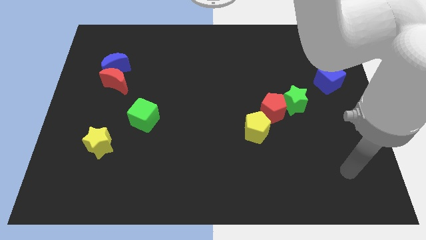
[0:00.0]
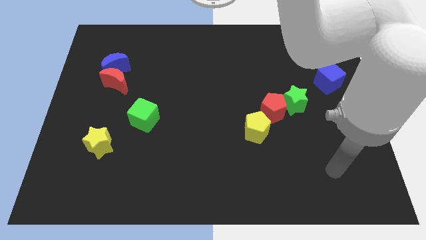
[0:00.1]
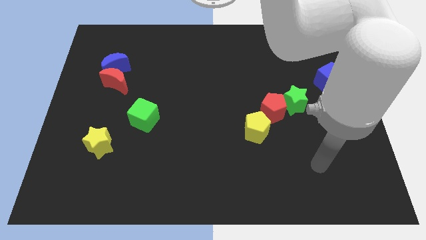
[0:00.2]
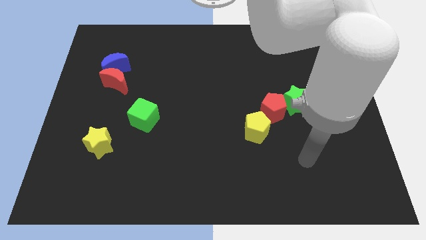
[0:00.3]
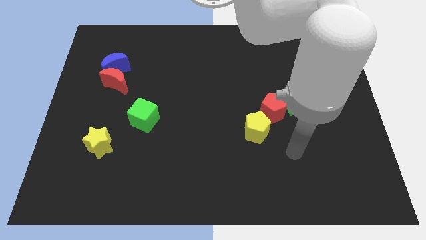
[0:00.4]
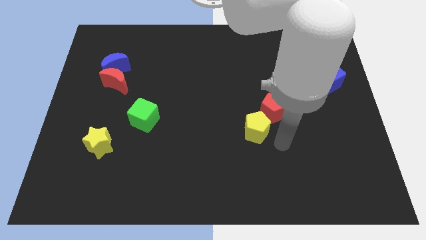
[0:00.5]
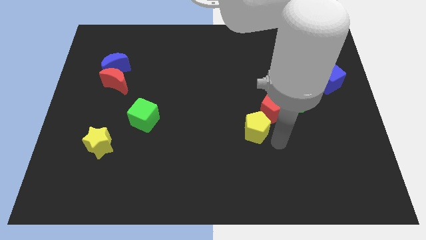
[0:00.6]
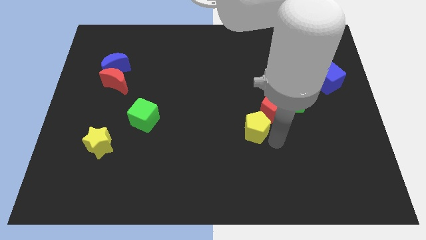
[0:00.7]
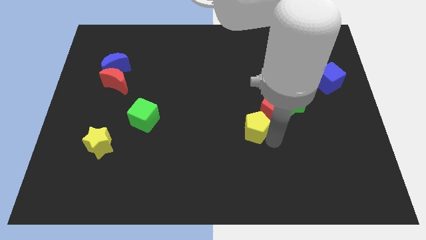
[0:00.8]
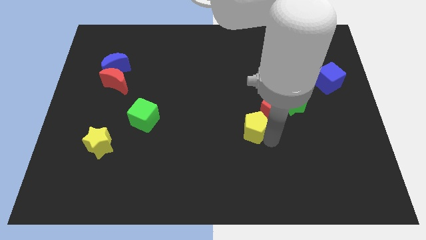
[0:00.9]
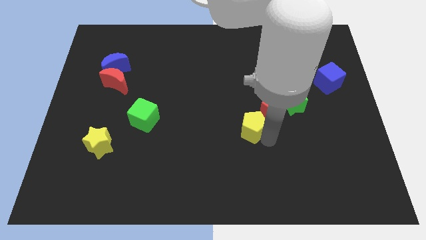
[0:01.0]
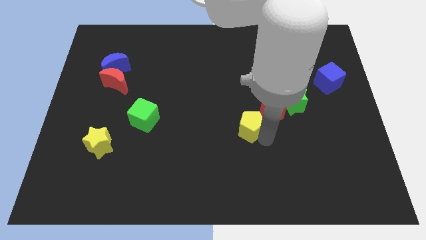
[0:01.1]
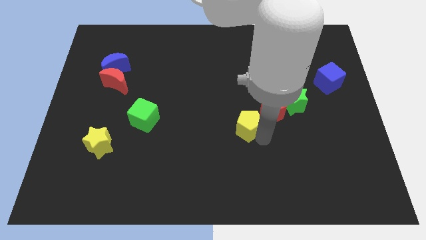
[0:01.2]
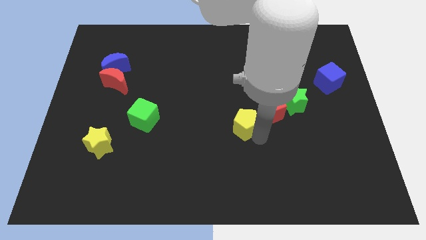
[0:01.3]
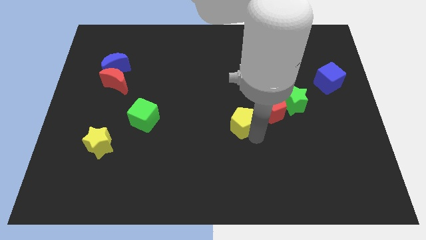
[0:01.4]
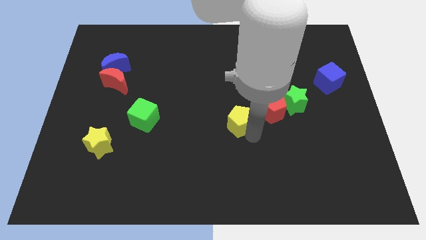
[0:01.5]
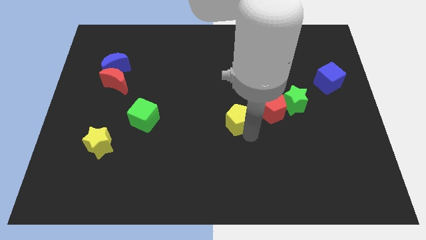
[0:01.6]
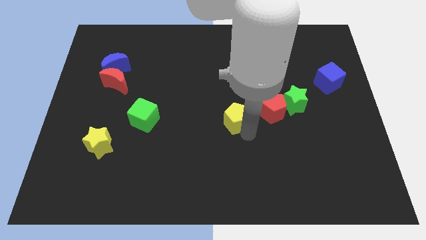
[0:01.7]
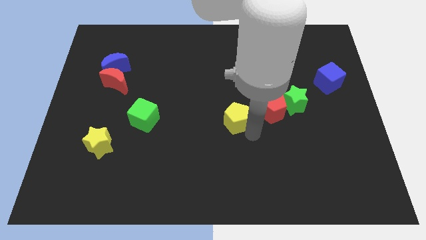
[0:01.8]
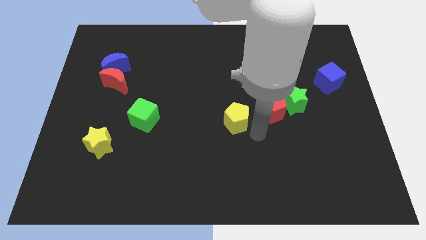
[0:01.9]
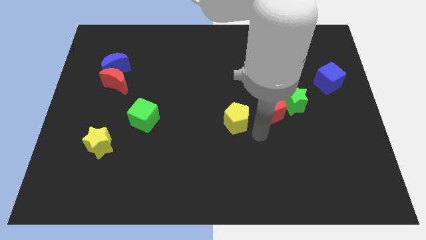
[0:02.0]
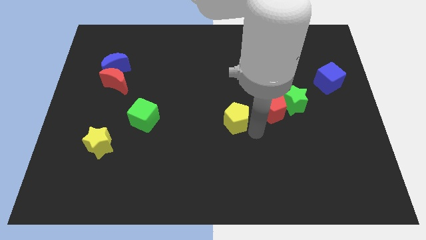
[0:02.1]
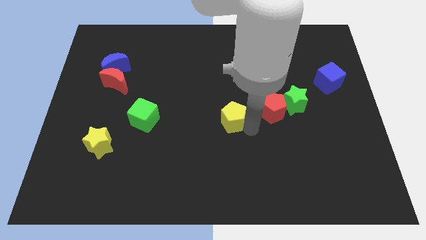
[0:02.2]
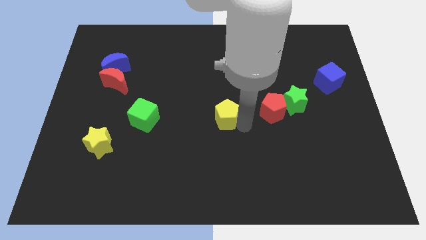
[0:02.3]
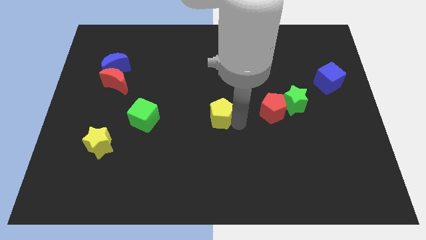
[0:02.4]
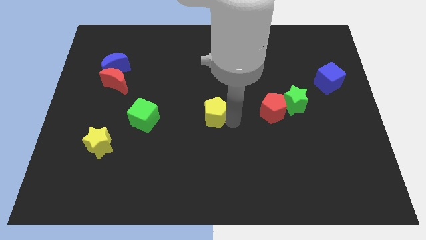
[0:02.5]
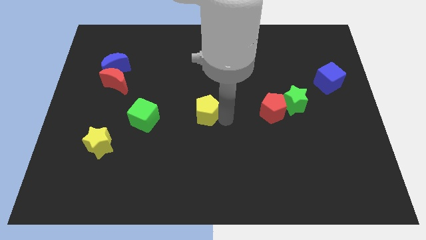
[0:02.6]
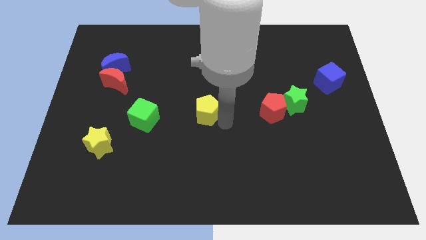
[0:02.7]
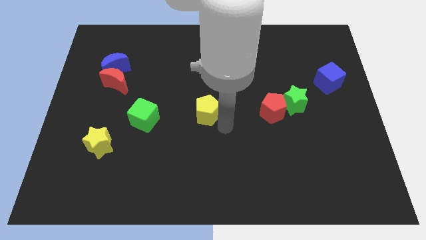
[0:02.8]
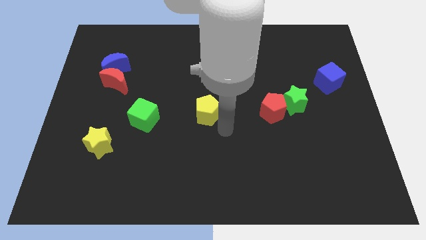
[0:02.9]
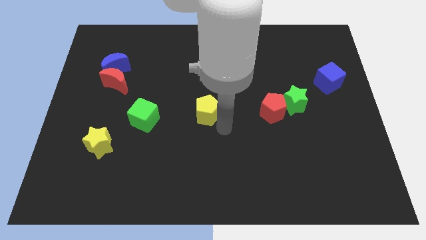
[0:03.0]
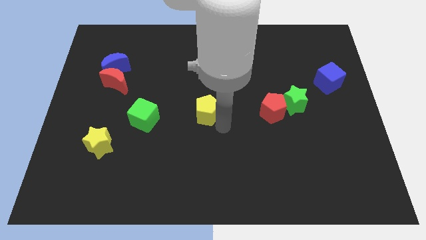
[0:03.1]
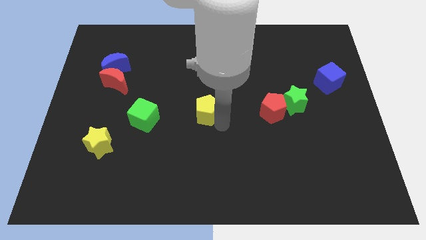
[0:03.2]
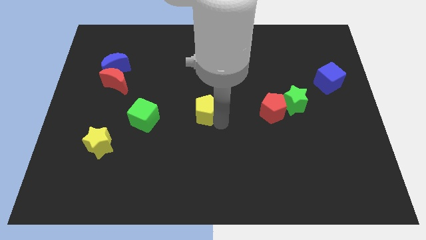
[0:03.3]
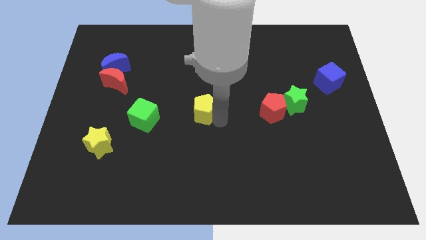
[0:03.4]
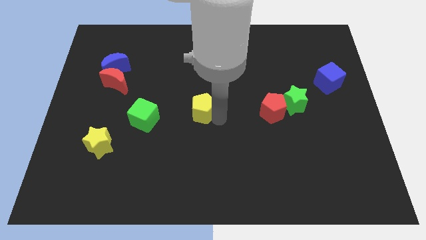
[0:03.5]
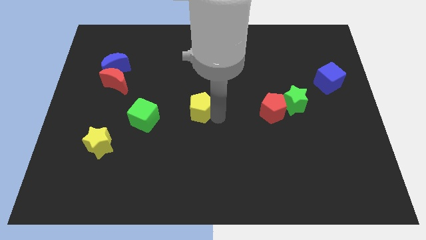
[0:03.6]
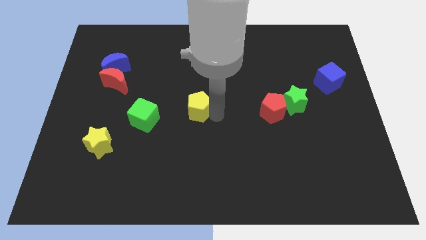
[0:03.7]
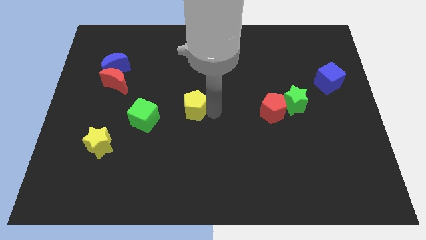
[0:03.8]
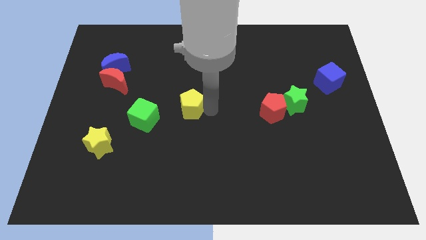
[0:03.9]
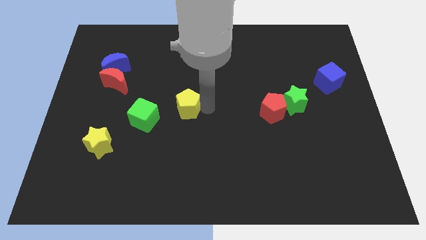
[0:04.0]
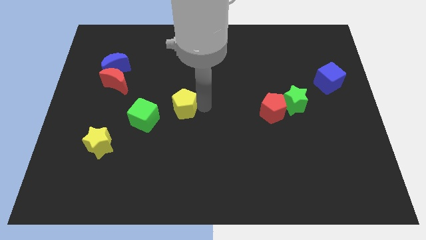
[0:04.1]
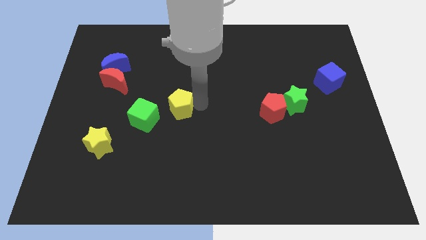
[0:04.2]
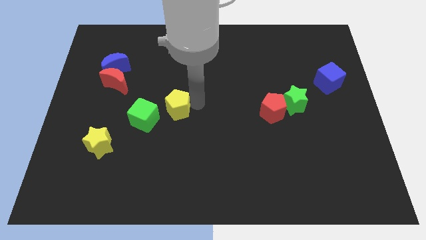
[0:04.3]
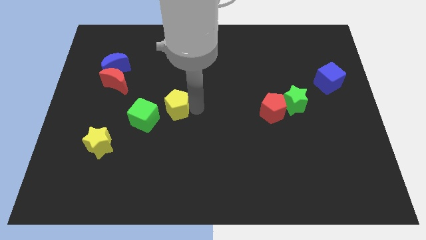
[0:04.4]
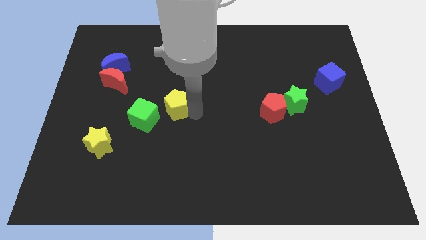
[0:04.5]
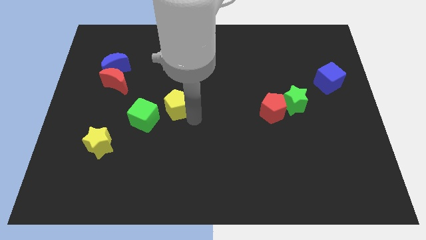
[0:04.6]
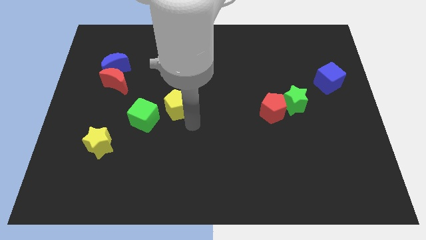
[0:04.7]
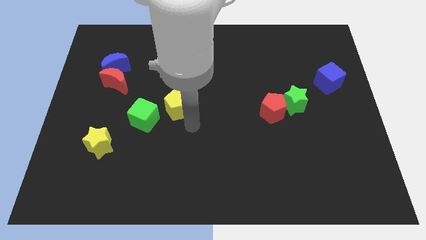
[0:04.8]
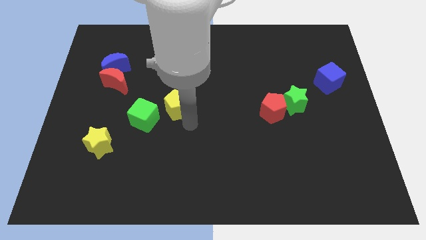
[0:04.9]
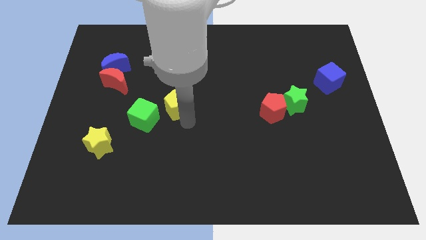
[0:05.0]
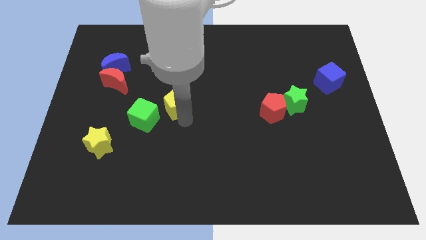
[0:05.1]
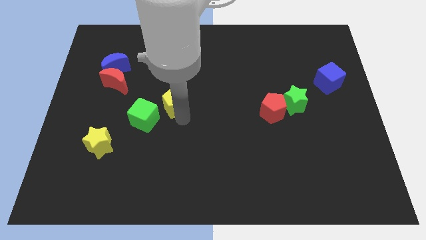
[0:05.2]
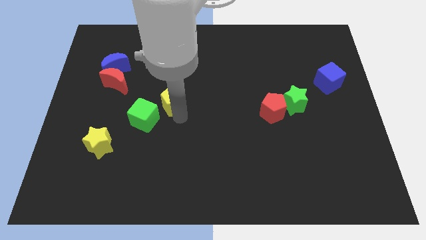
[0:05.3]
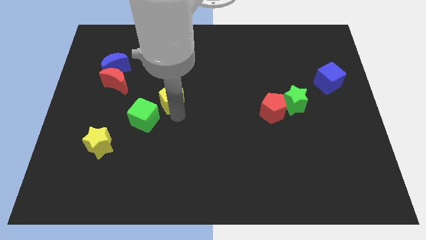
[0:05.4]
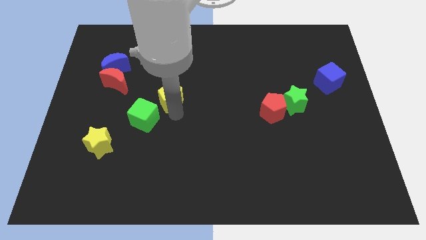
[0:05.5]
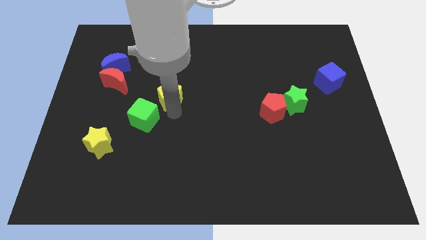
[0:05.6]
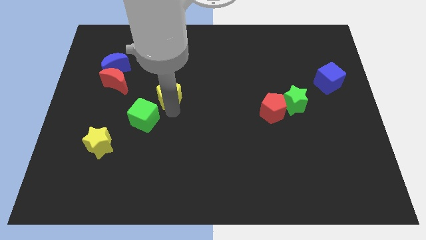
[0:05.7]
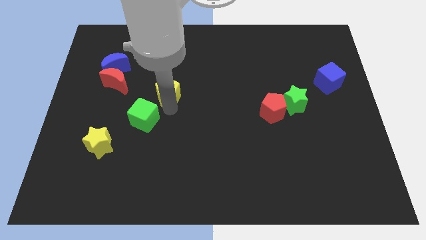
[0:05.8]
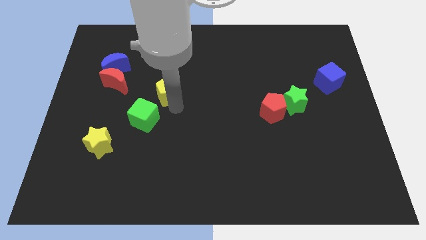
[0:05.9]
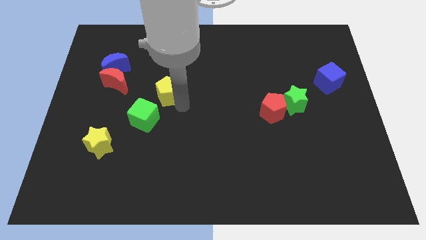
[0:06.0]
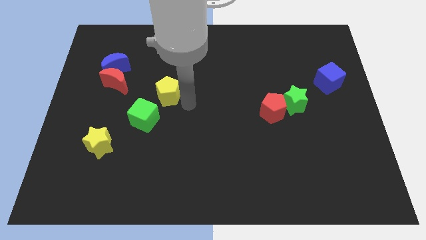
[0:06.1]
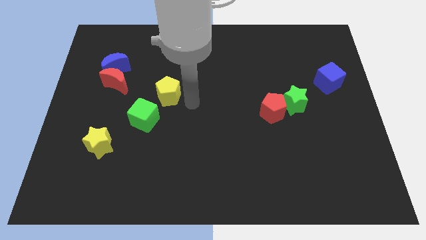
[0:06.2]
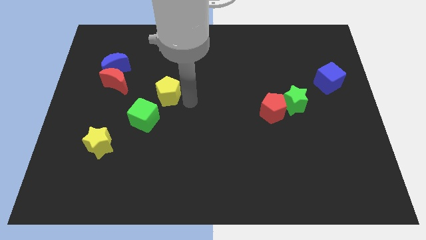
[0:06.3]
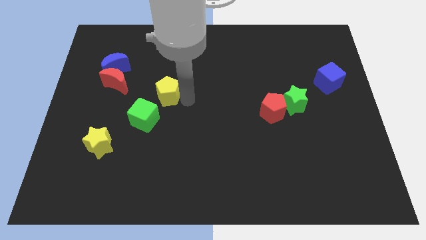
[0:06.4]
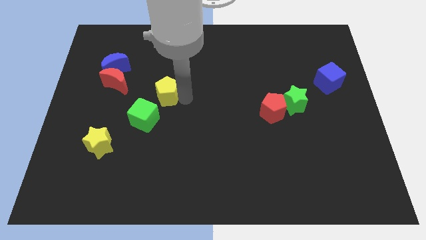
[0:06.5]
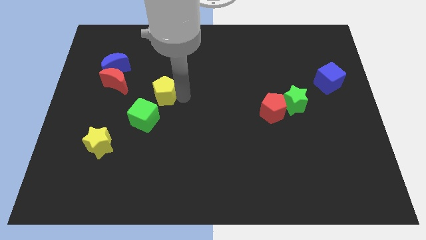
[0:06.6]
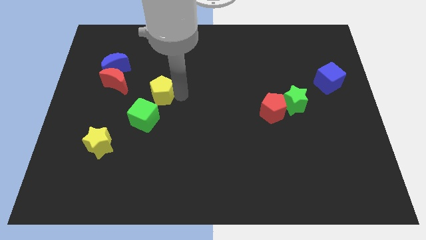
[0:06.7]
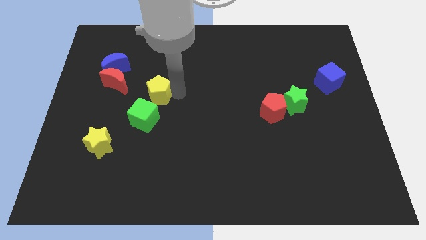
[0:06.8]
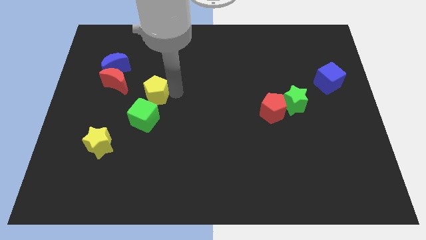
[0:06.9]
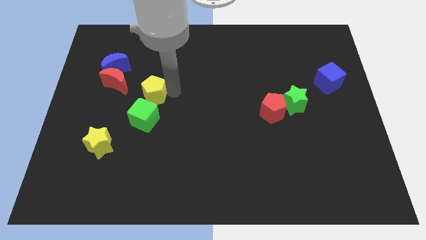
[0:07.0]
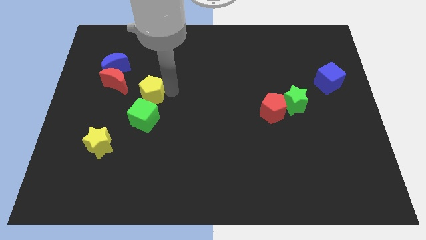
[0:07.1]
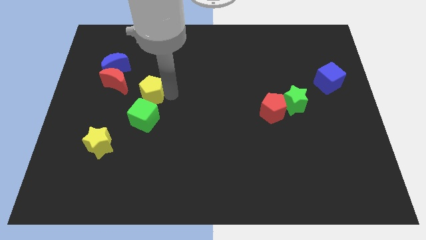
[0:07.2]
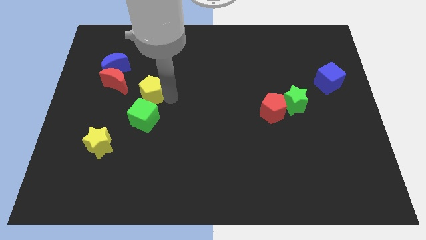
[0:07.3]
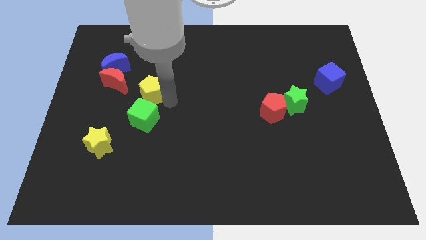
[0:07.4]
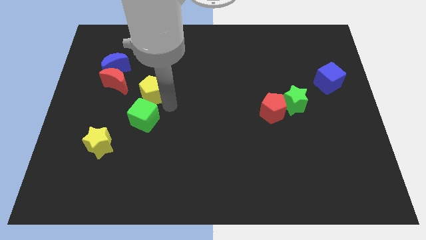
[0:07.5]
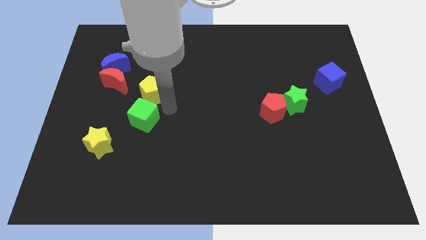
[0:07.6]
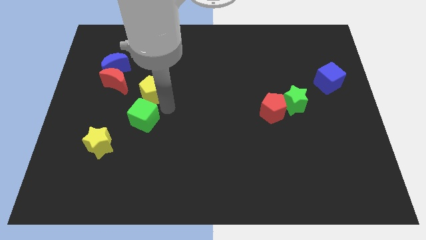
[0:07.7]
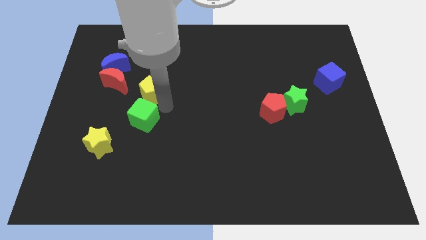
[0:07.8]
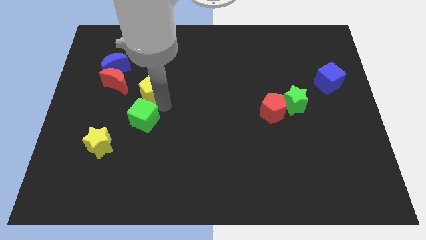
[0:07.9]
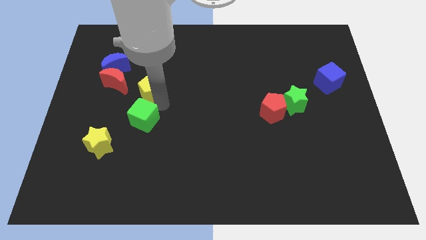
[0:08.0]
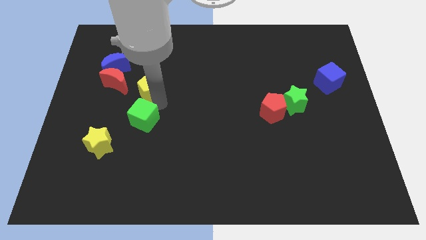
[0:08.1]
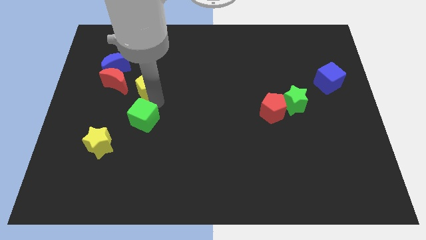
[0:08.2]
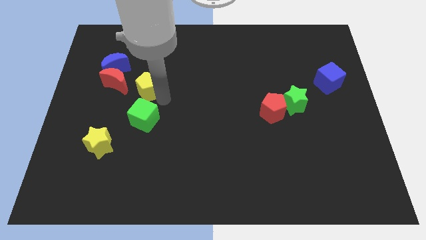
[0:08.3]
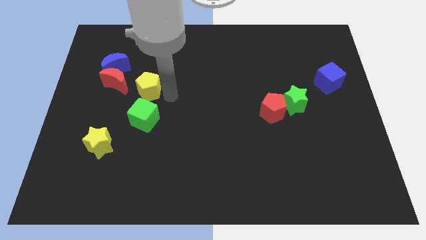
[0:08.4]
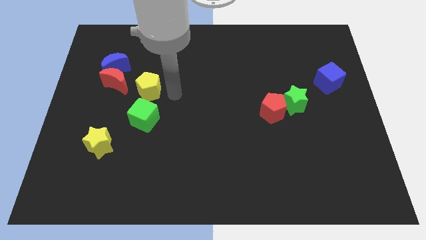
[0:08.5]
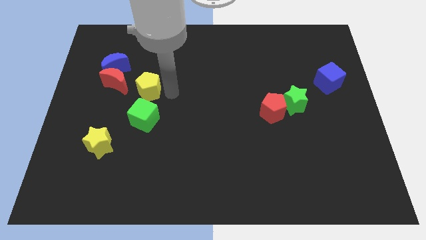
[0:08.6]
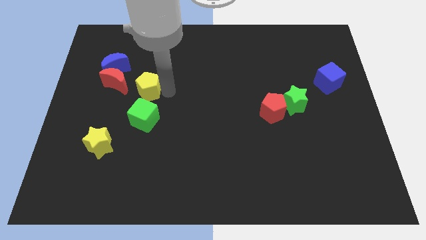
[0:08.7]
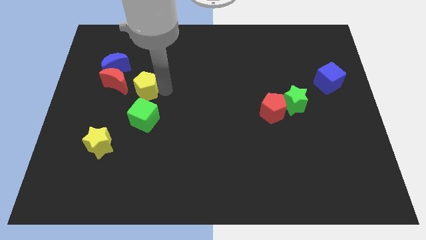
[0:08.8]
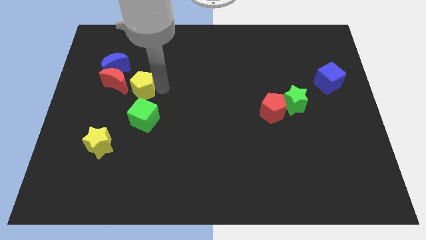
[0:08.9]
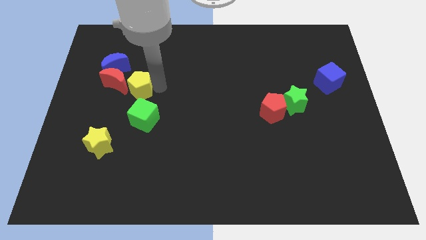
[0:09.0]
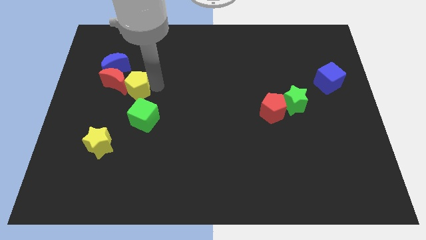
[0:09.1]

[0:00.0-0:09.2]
put the yellow pentagon next to the red moon
